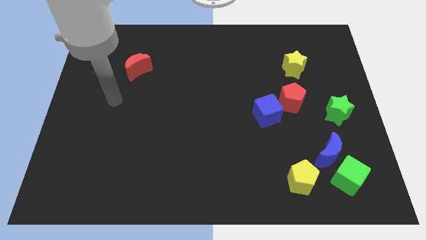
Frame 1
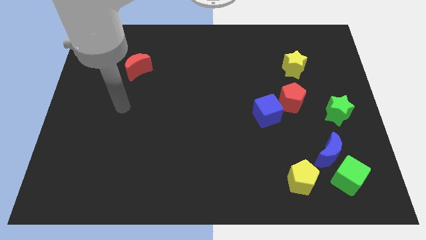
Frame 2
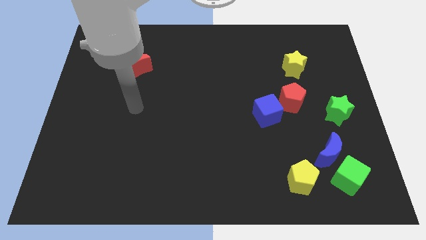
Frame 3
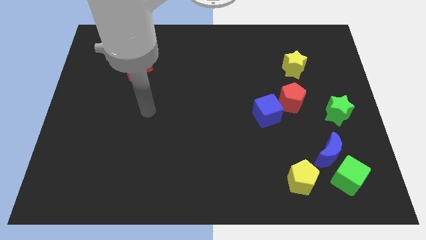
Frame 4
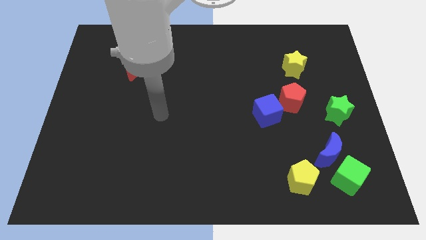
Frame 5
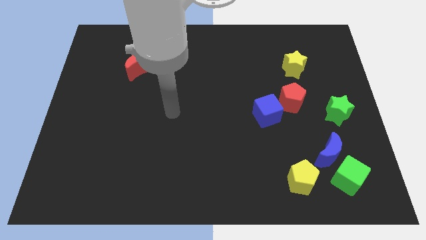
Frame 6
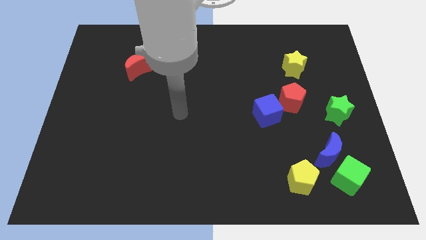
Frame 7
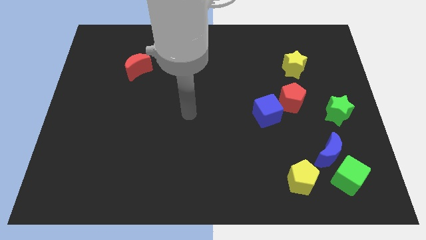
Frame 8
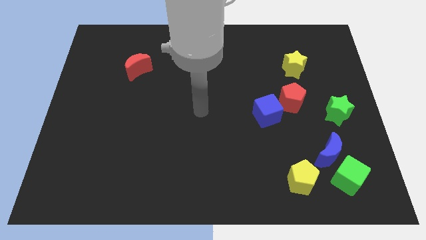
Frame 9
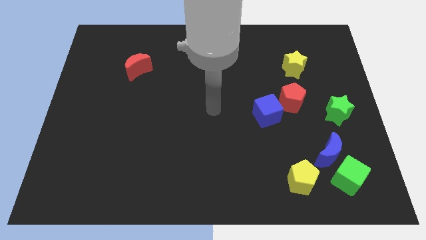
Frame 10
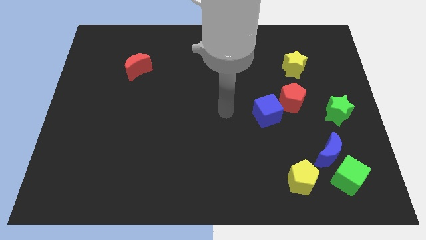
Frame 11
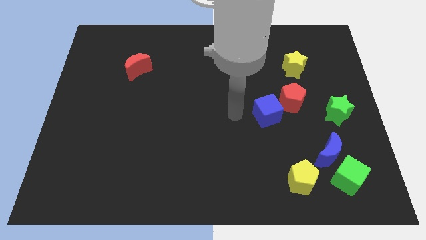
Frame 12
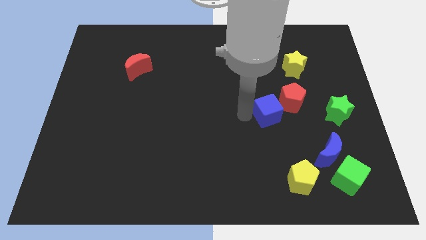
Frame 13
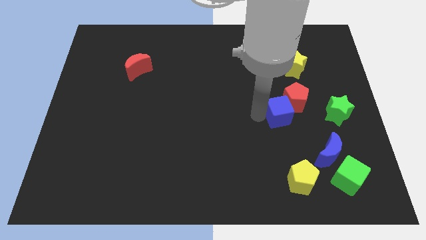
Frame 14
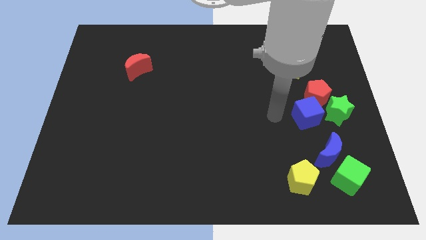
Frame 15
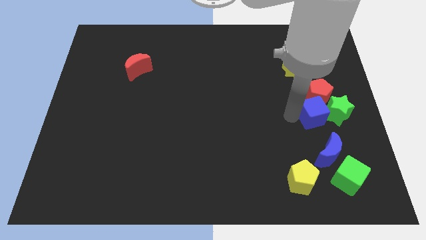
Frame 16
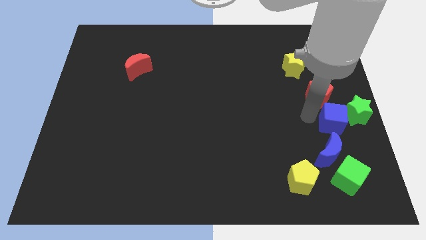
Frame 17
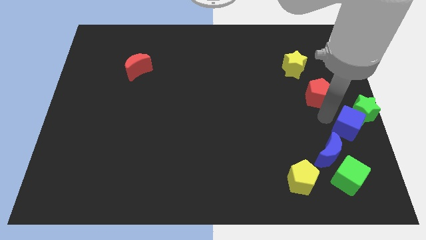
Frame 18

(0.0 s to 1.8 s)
move the red pentagon away from the blue cube

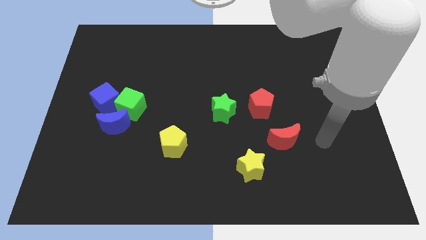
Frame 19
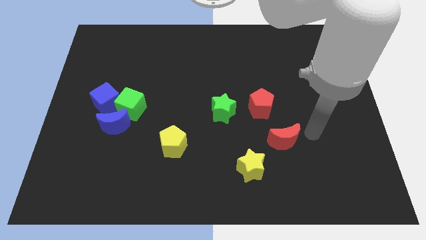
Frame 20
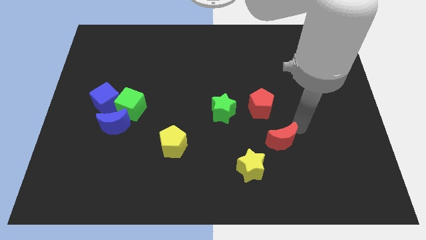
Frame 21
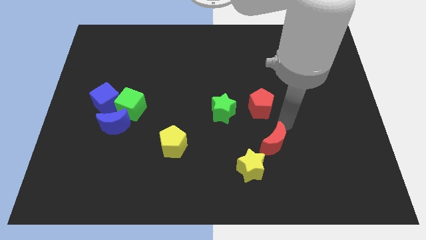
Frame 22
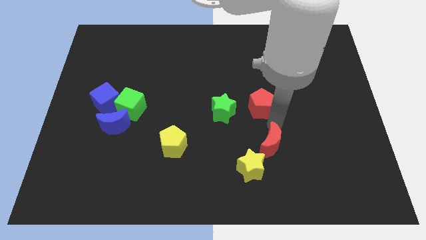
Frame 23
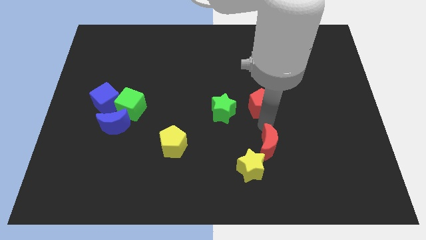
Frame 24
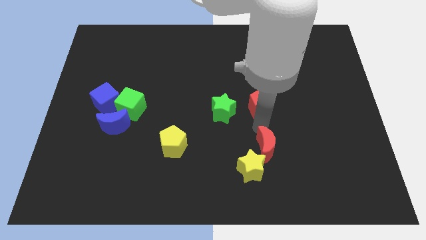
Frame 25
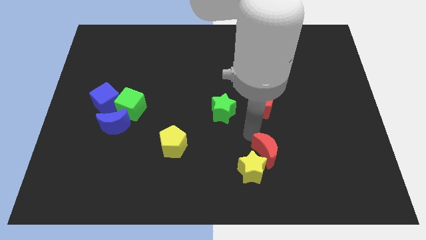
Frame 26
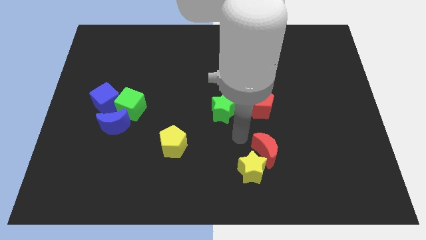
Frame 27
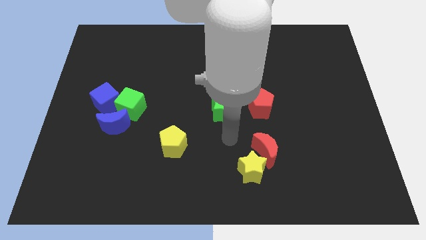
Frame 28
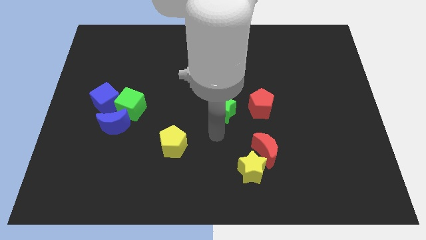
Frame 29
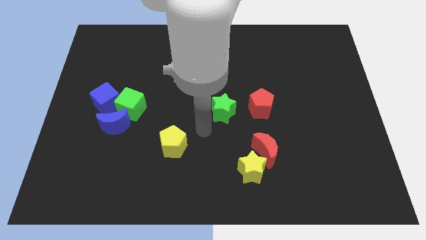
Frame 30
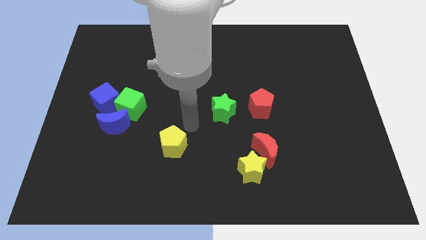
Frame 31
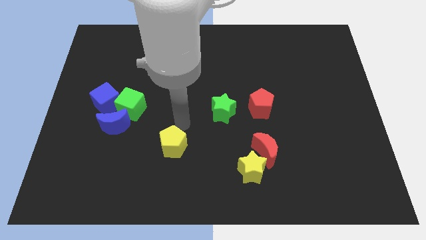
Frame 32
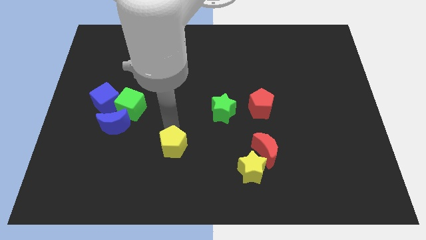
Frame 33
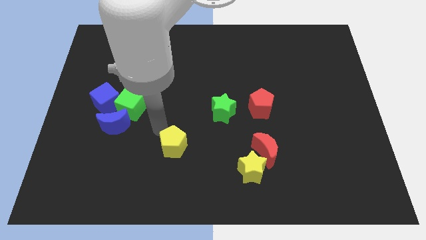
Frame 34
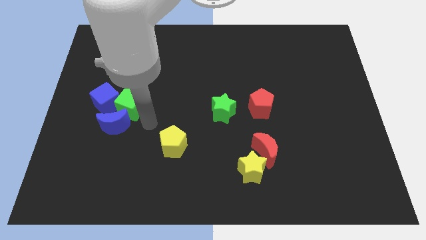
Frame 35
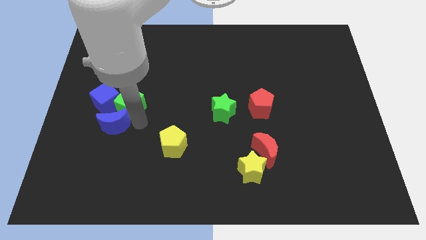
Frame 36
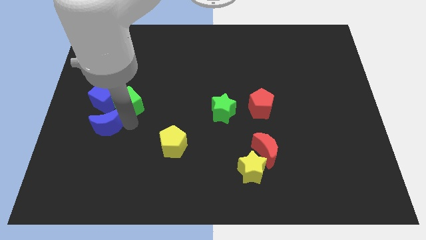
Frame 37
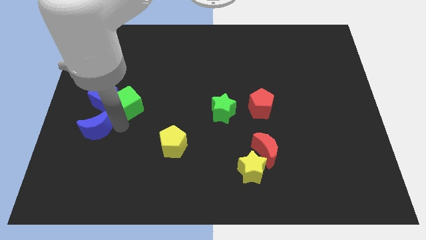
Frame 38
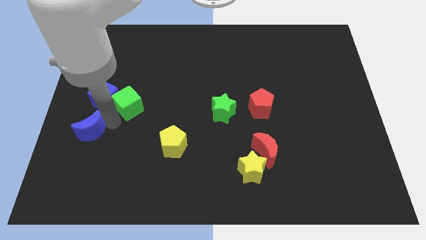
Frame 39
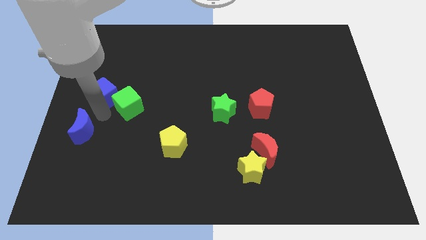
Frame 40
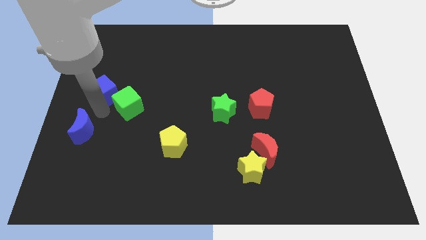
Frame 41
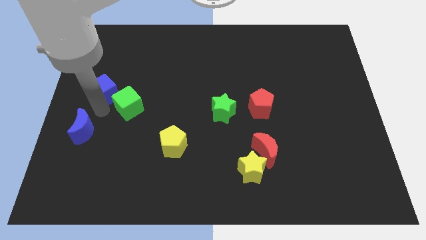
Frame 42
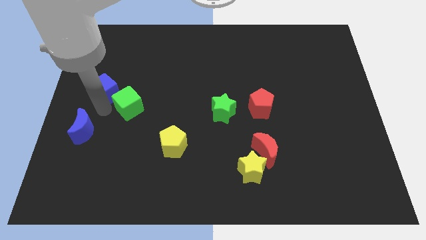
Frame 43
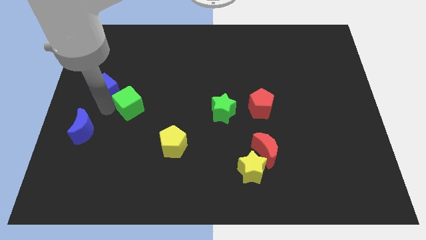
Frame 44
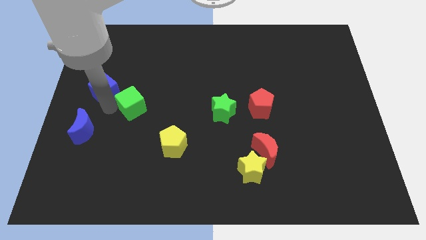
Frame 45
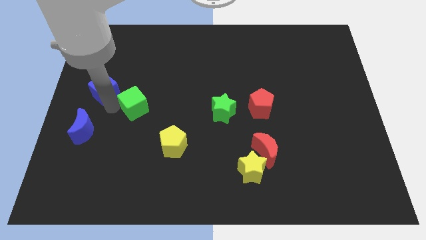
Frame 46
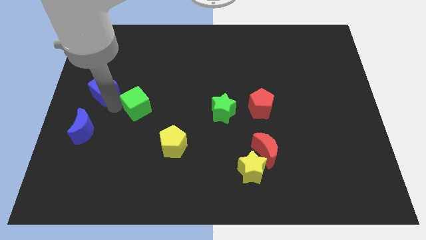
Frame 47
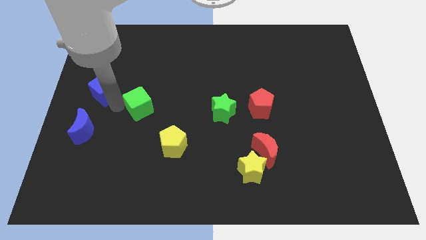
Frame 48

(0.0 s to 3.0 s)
separate the green cube from the blue moon and blue cube

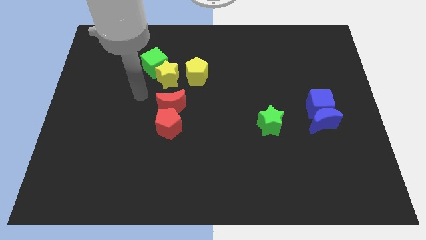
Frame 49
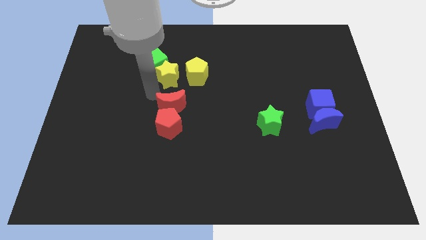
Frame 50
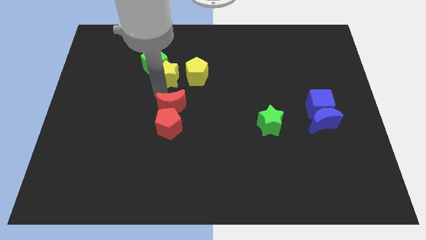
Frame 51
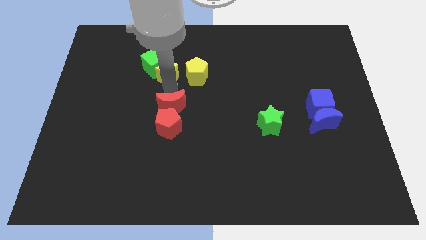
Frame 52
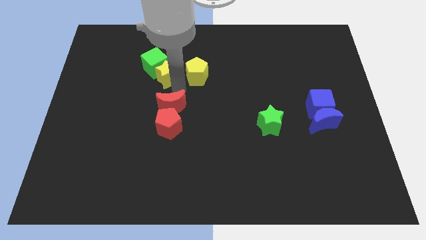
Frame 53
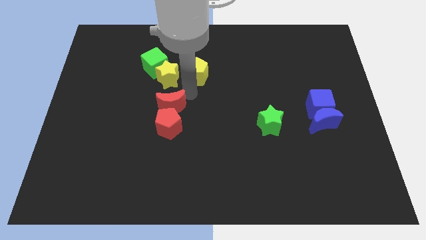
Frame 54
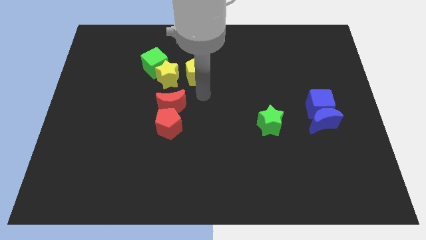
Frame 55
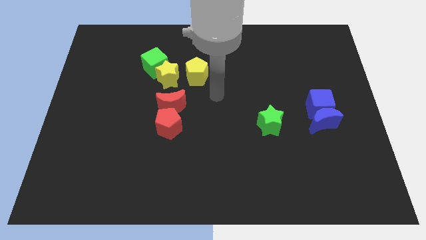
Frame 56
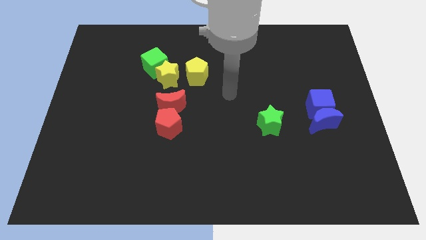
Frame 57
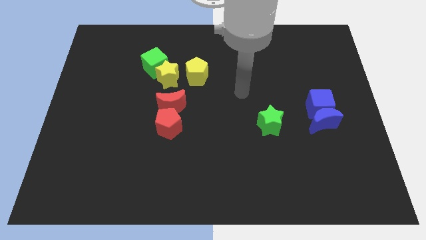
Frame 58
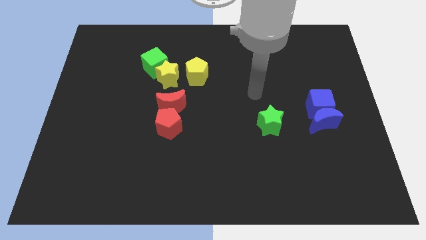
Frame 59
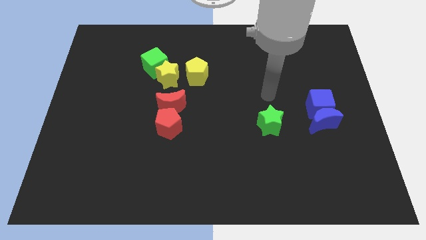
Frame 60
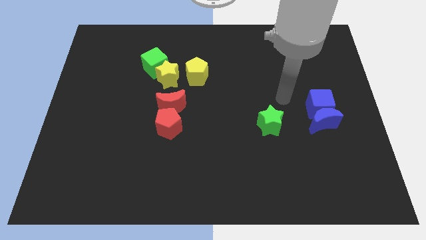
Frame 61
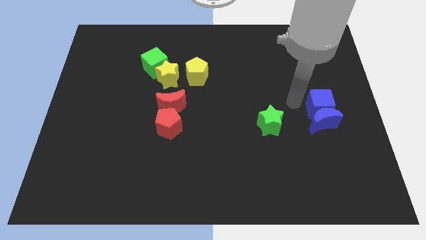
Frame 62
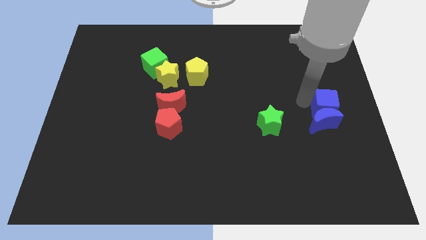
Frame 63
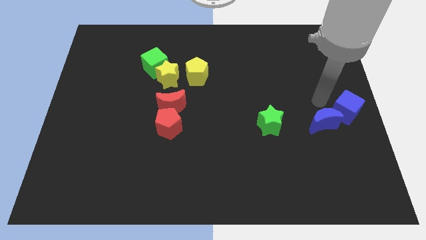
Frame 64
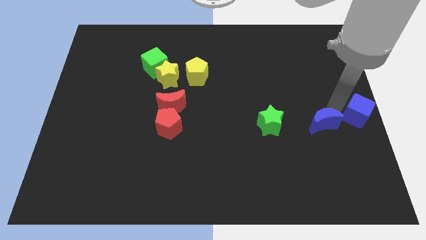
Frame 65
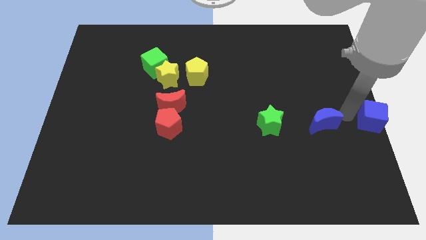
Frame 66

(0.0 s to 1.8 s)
move the blue moon away from the blue cube

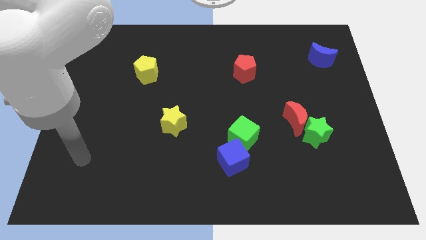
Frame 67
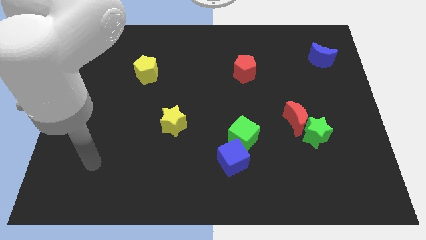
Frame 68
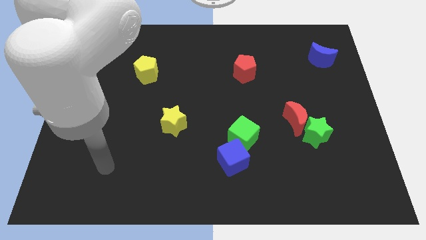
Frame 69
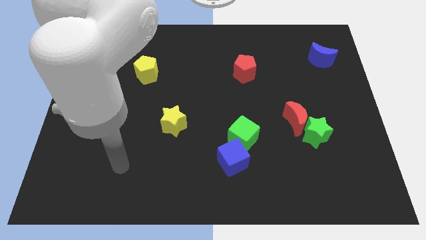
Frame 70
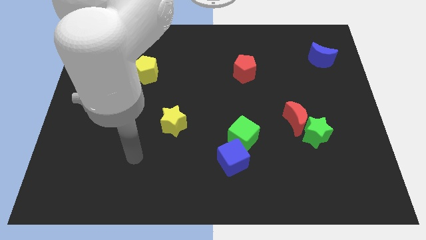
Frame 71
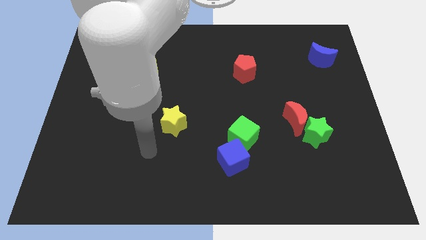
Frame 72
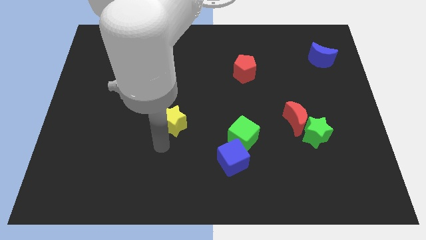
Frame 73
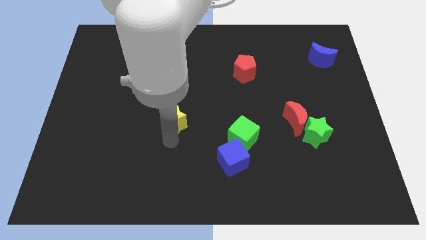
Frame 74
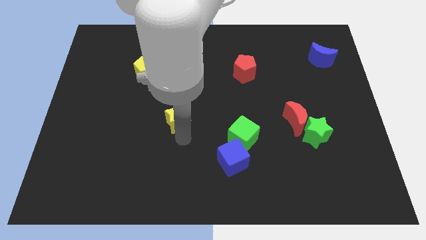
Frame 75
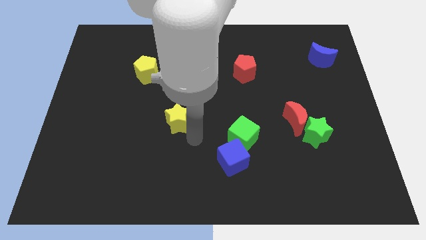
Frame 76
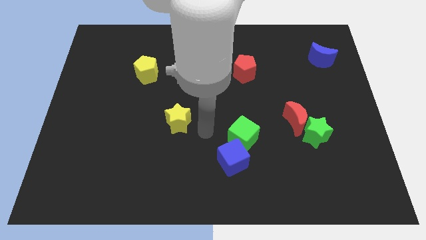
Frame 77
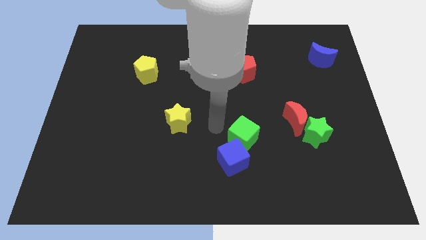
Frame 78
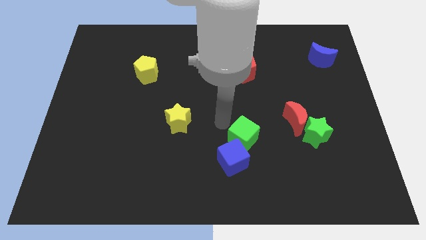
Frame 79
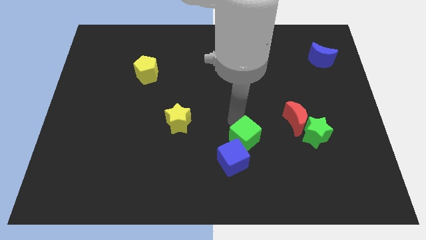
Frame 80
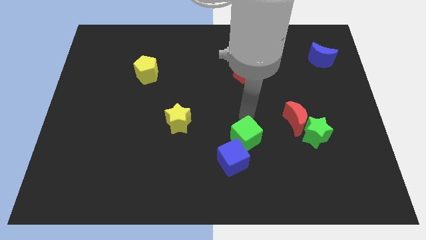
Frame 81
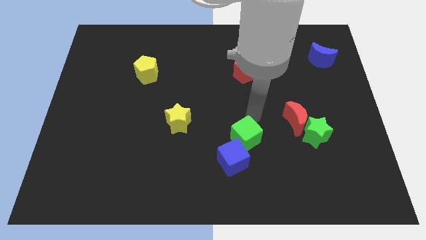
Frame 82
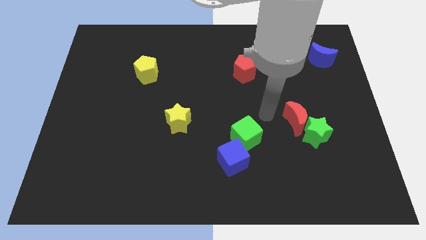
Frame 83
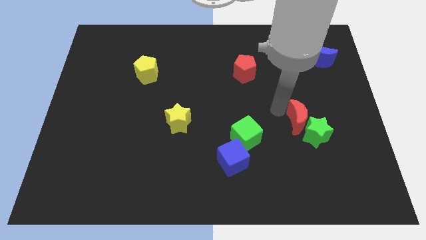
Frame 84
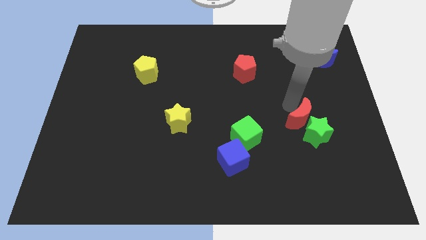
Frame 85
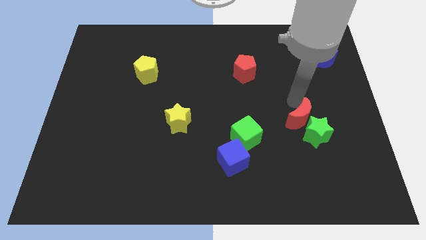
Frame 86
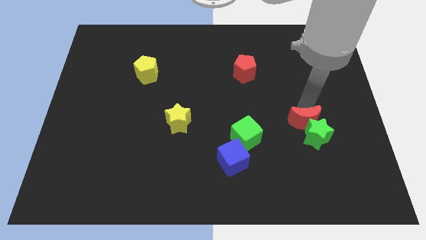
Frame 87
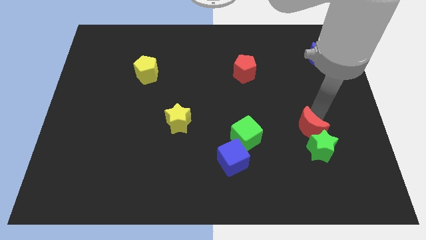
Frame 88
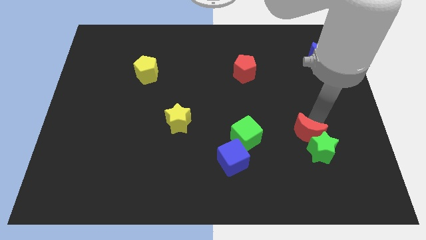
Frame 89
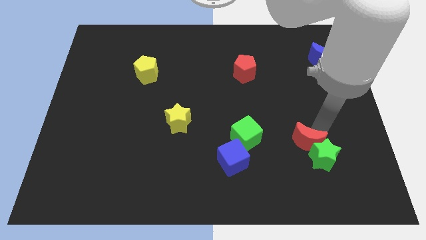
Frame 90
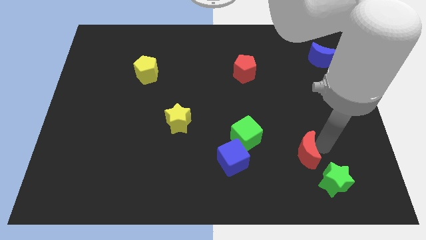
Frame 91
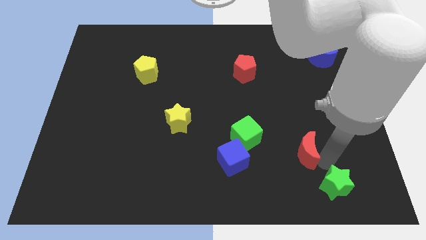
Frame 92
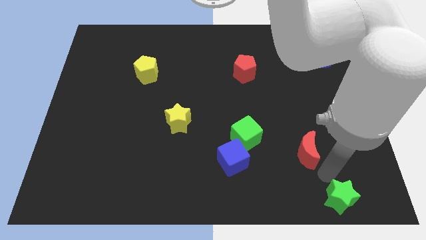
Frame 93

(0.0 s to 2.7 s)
move the red moon away from the green star
